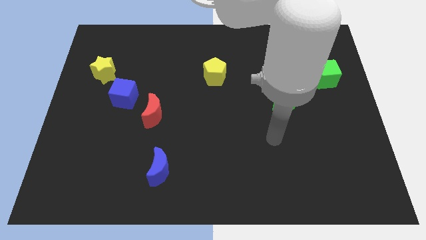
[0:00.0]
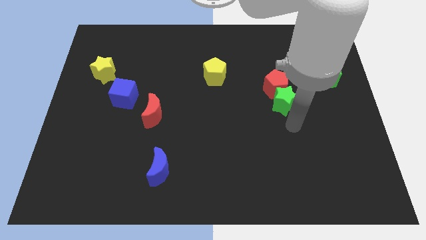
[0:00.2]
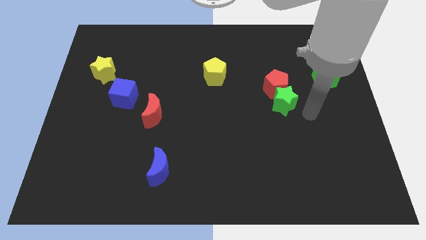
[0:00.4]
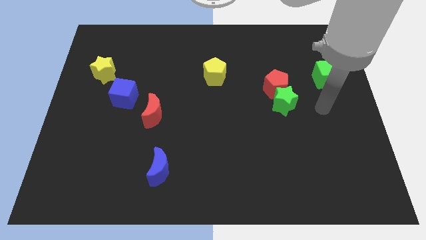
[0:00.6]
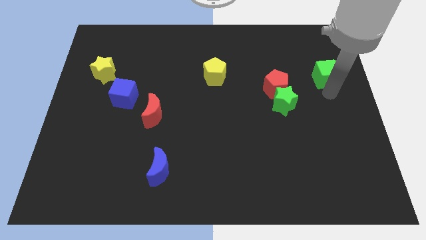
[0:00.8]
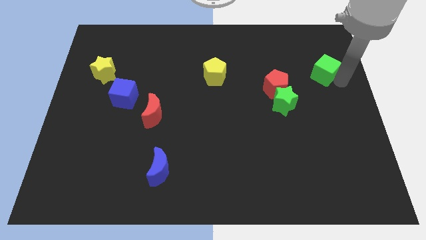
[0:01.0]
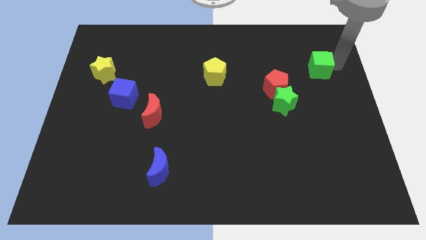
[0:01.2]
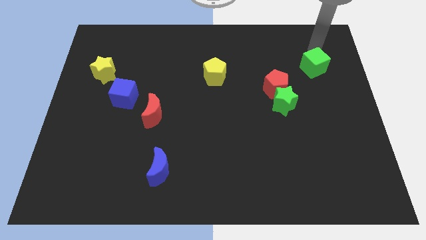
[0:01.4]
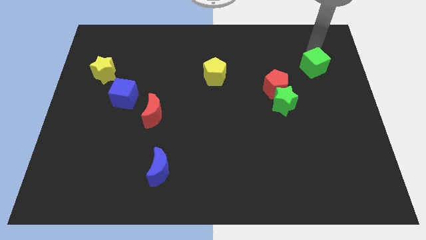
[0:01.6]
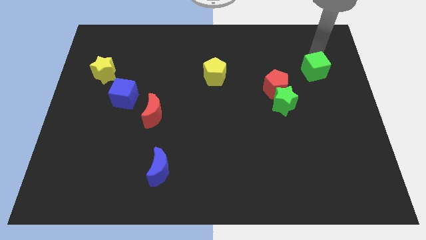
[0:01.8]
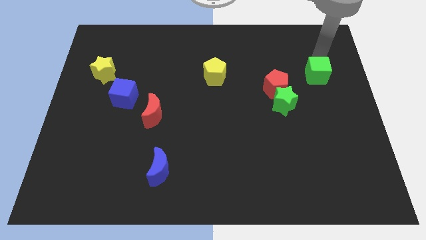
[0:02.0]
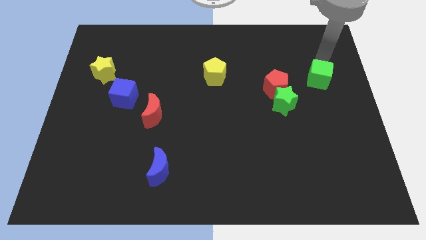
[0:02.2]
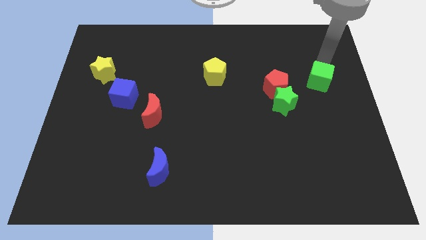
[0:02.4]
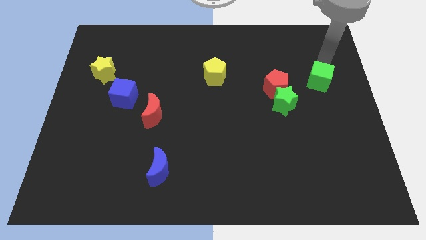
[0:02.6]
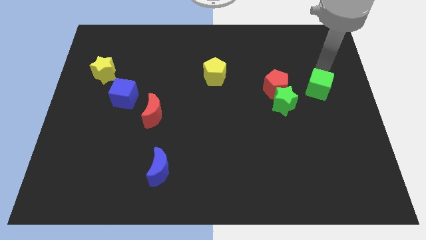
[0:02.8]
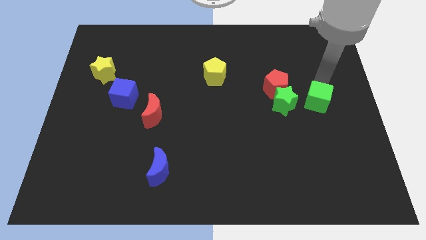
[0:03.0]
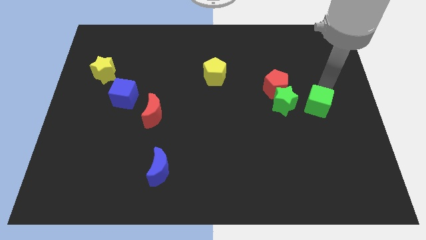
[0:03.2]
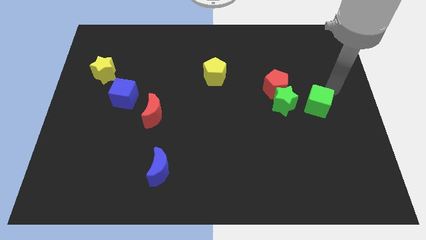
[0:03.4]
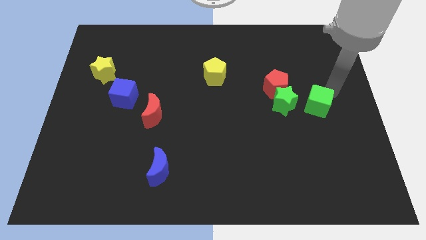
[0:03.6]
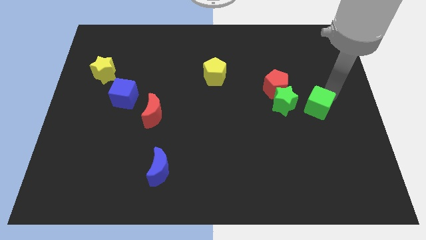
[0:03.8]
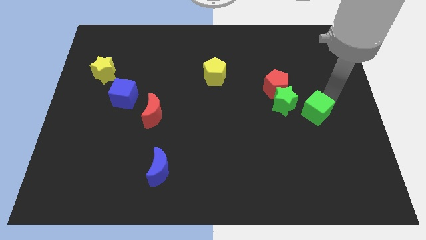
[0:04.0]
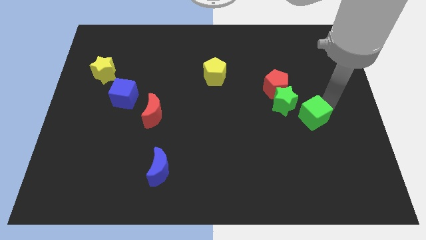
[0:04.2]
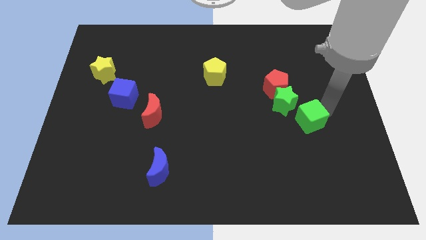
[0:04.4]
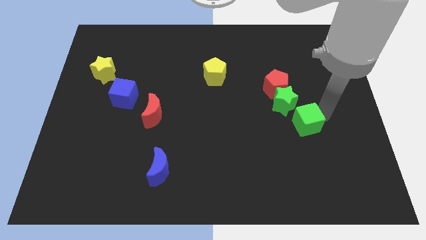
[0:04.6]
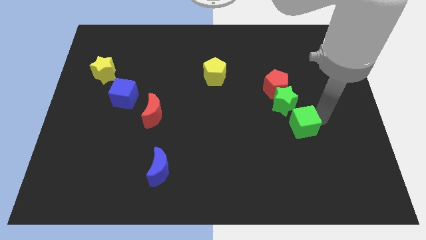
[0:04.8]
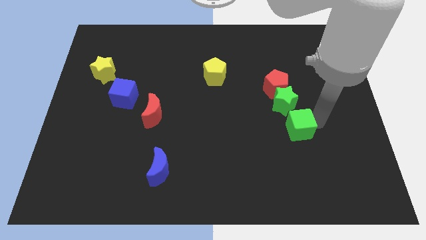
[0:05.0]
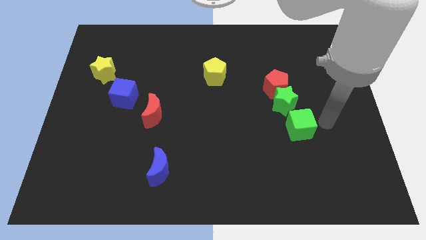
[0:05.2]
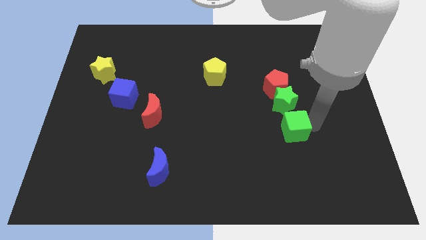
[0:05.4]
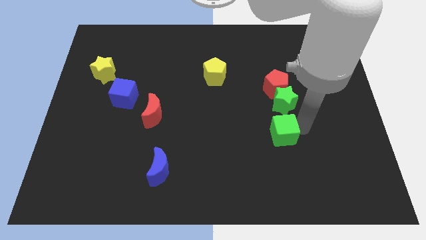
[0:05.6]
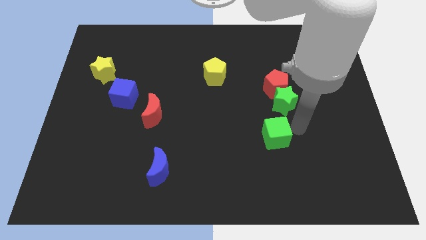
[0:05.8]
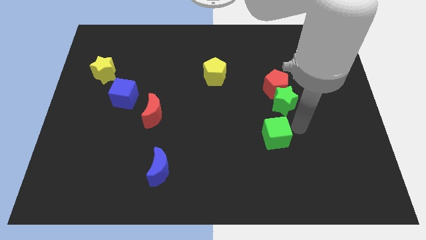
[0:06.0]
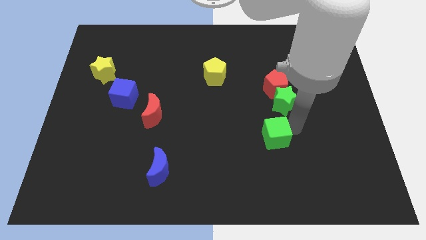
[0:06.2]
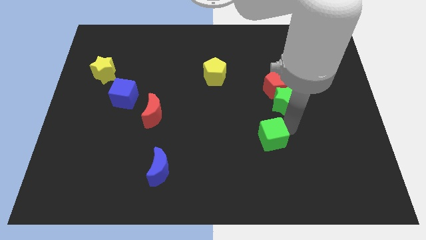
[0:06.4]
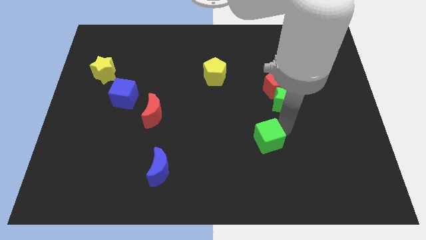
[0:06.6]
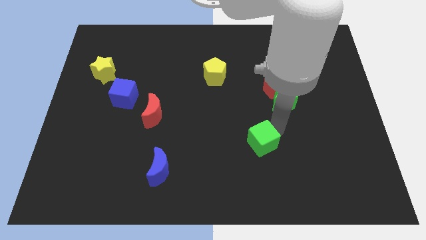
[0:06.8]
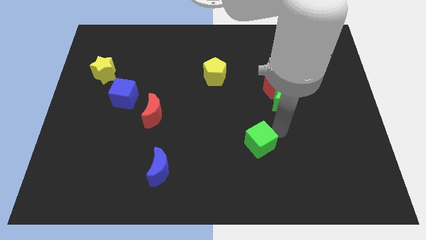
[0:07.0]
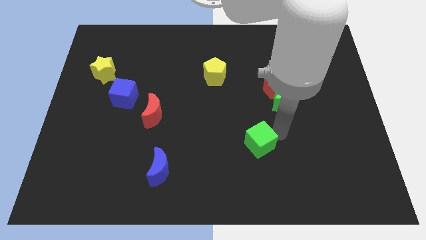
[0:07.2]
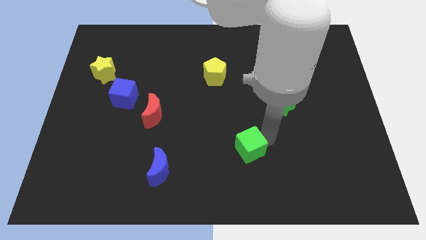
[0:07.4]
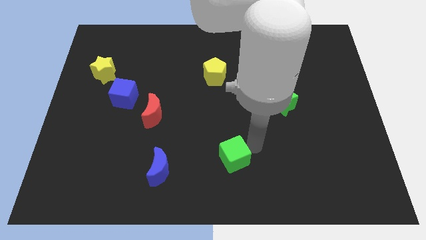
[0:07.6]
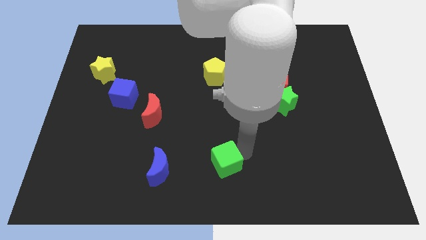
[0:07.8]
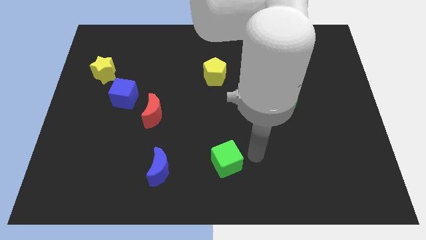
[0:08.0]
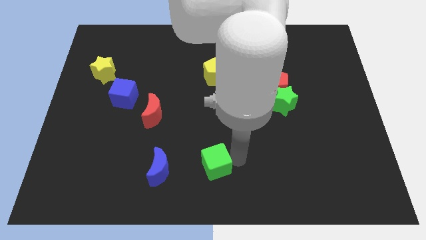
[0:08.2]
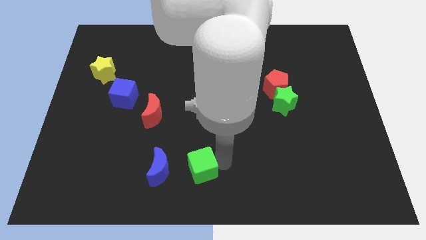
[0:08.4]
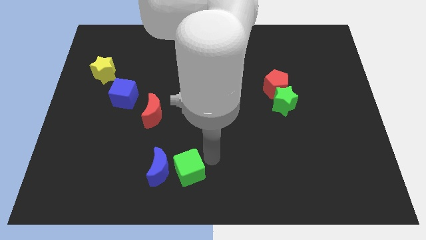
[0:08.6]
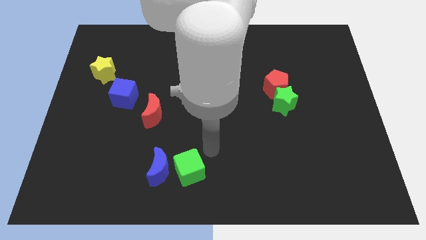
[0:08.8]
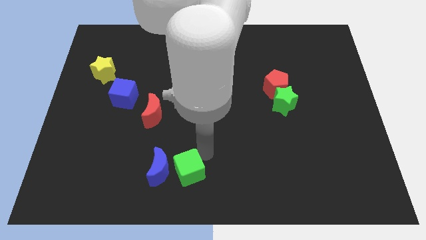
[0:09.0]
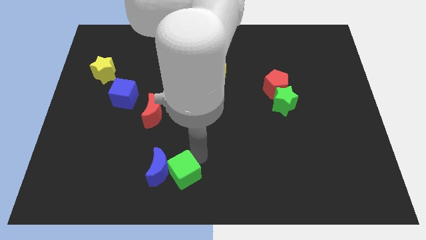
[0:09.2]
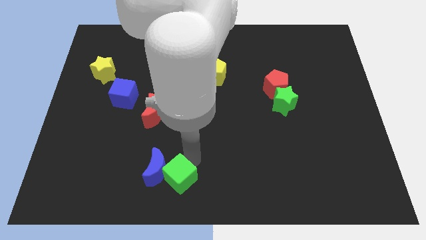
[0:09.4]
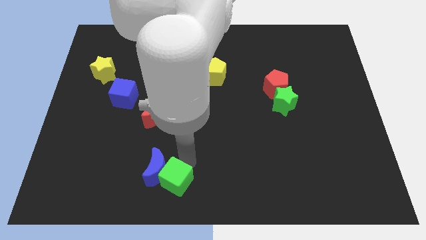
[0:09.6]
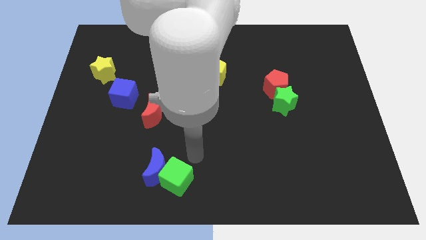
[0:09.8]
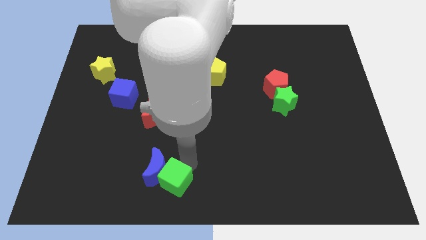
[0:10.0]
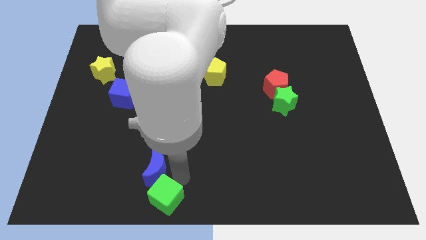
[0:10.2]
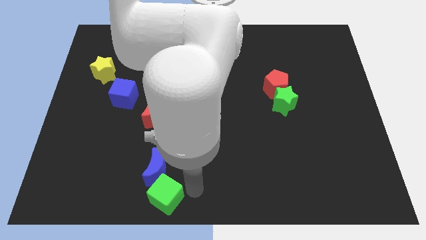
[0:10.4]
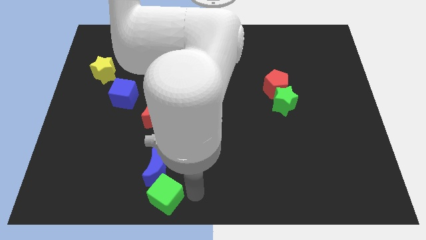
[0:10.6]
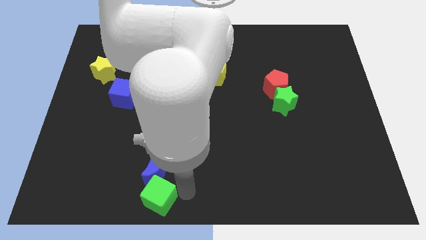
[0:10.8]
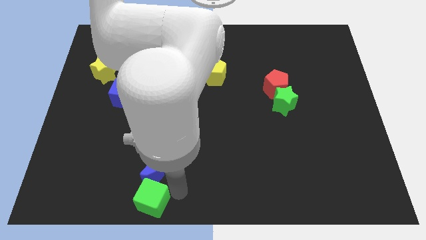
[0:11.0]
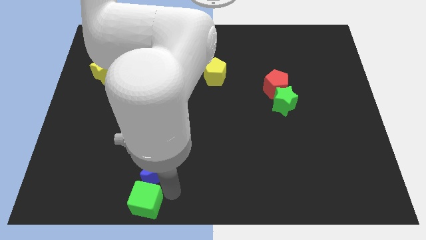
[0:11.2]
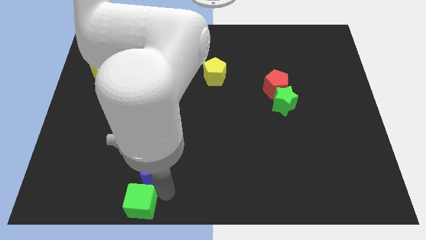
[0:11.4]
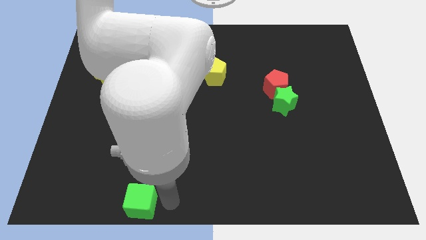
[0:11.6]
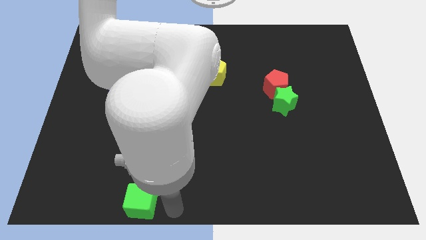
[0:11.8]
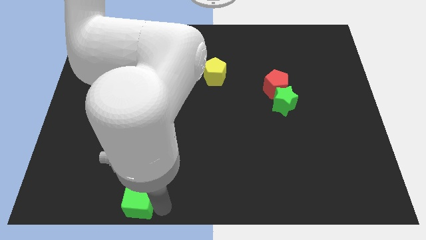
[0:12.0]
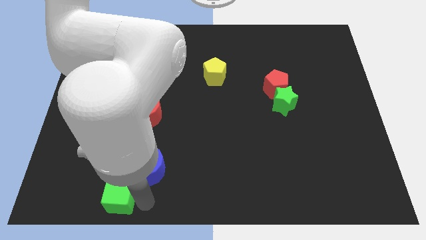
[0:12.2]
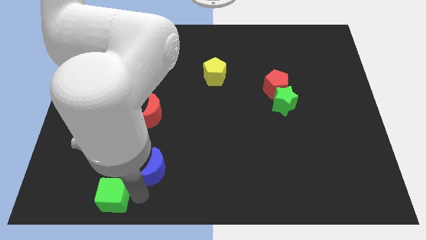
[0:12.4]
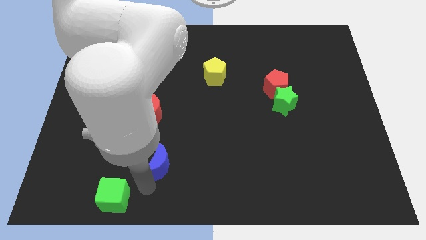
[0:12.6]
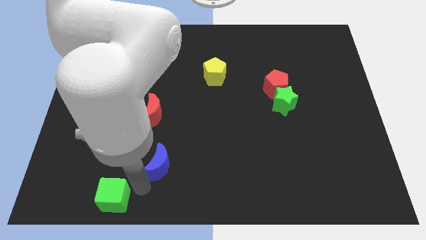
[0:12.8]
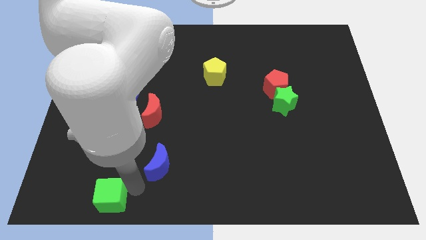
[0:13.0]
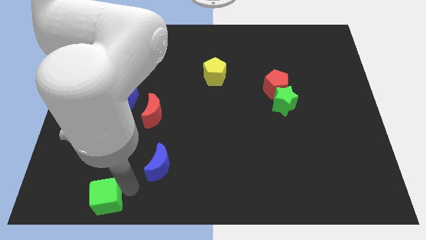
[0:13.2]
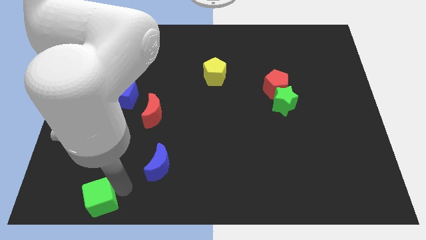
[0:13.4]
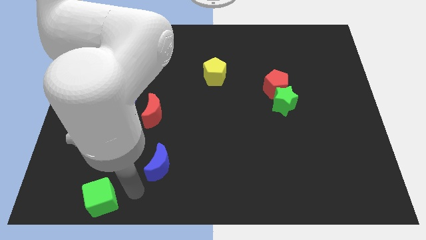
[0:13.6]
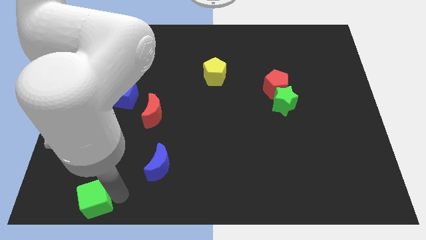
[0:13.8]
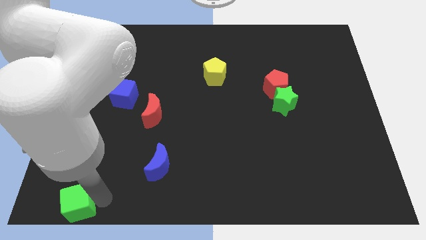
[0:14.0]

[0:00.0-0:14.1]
move the green cube to the bottom left of the board
